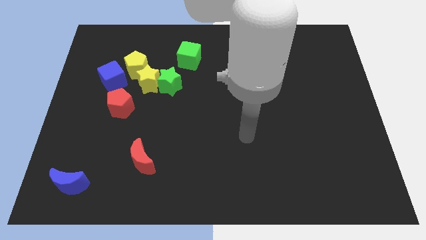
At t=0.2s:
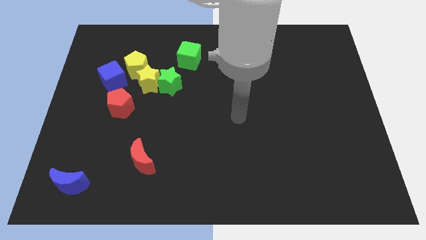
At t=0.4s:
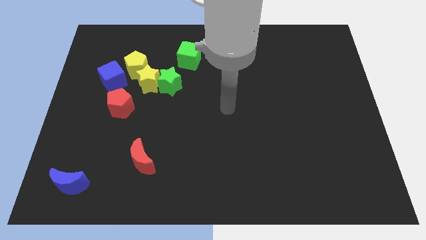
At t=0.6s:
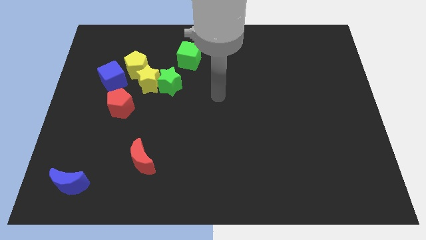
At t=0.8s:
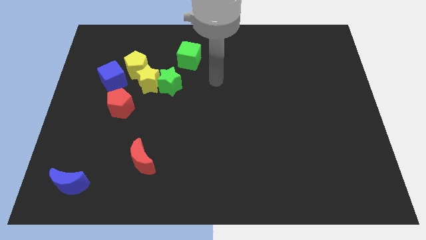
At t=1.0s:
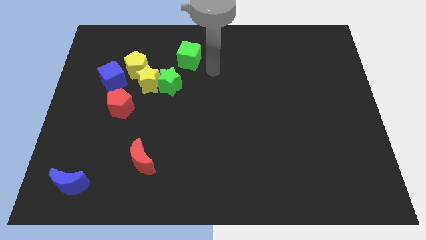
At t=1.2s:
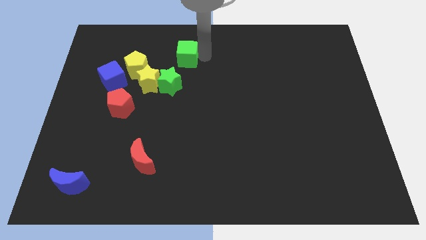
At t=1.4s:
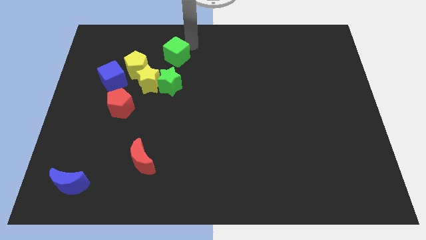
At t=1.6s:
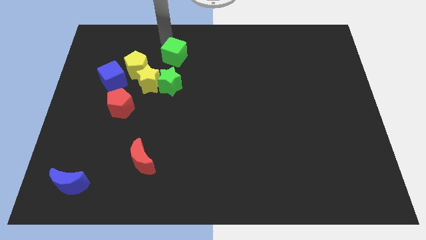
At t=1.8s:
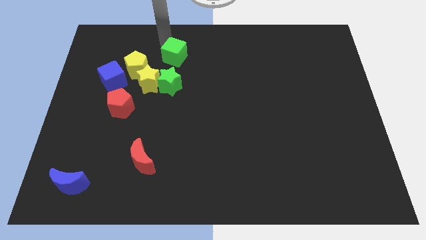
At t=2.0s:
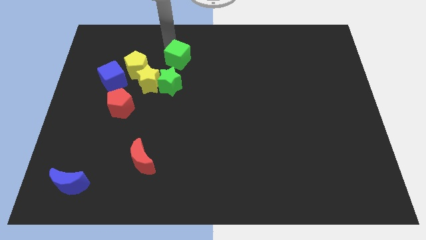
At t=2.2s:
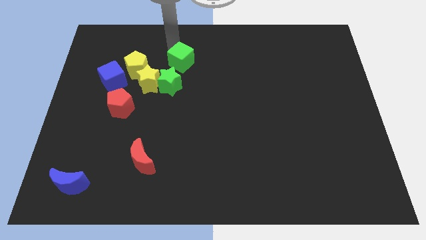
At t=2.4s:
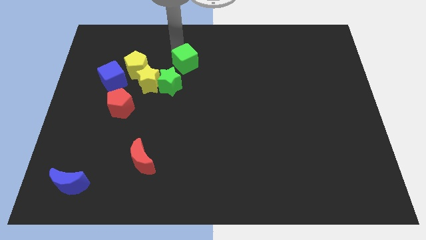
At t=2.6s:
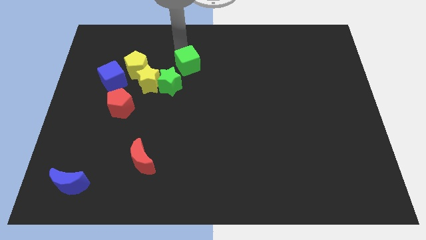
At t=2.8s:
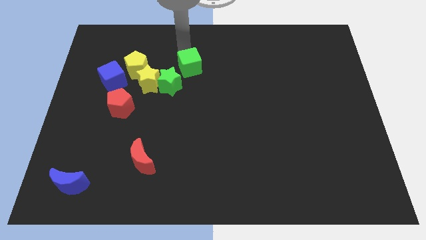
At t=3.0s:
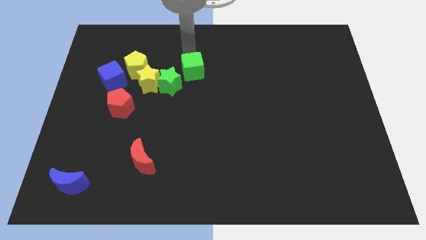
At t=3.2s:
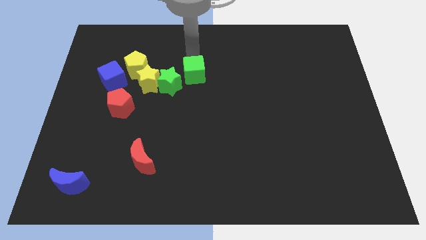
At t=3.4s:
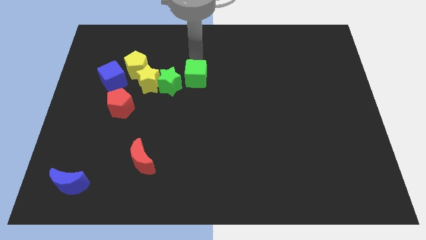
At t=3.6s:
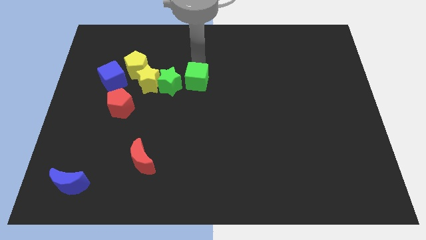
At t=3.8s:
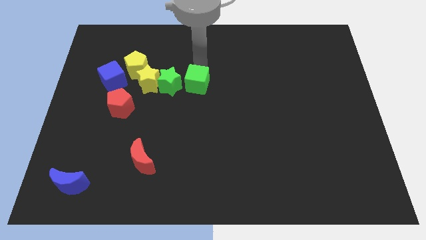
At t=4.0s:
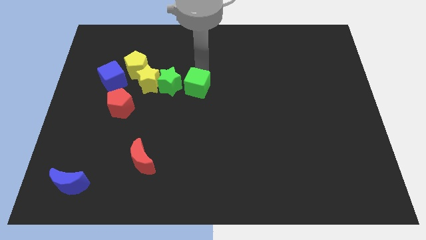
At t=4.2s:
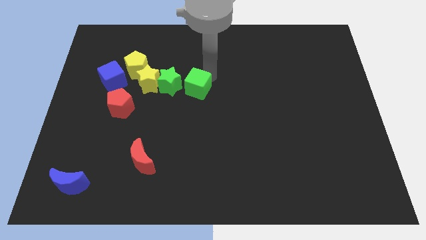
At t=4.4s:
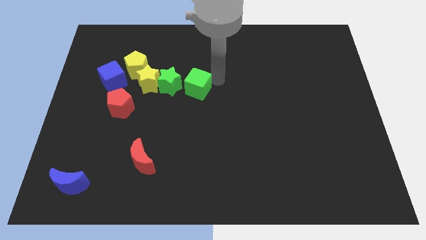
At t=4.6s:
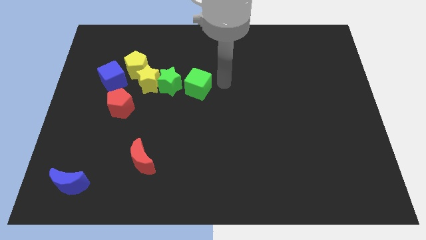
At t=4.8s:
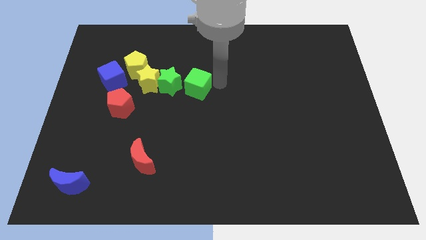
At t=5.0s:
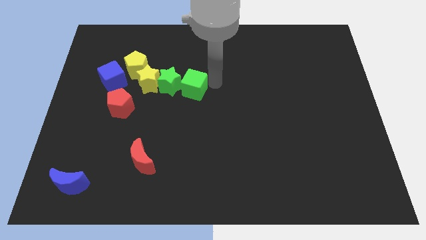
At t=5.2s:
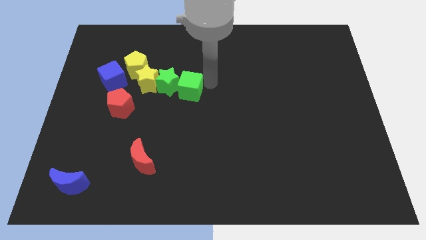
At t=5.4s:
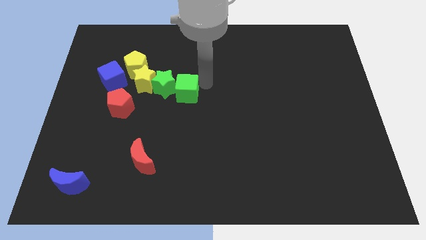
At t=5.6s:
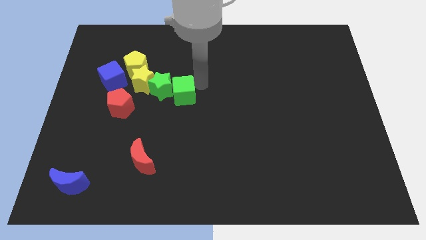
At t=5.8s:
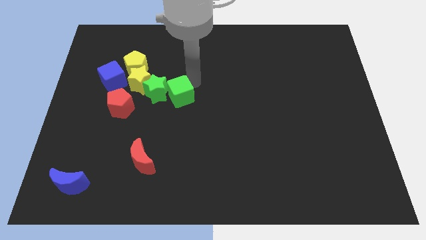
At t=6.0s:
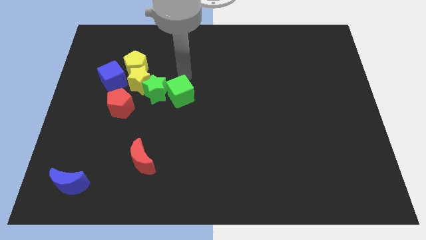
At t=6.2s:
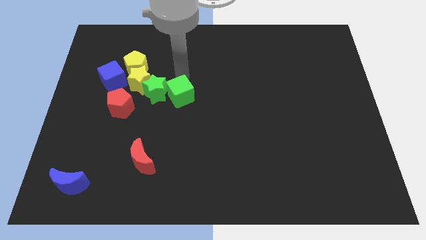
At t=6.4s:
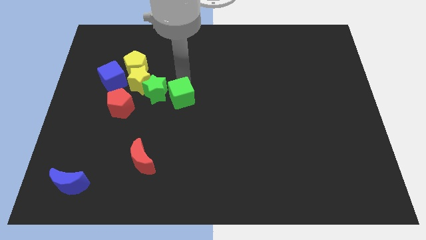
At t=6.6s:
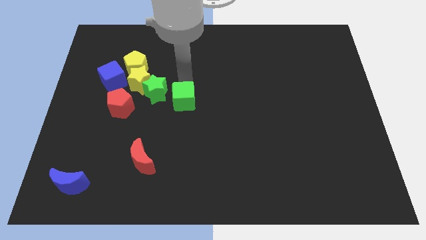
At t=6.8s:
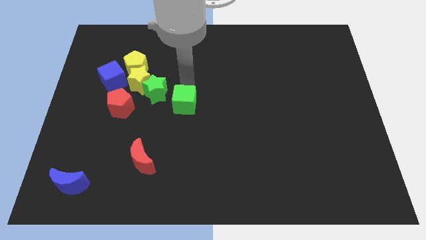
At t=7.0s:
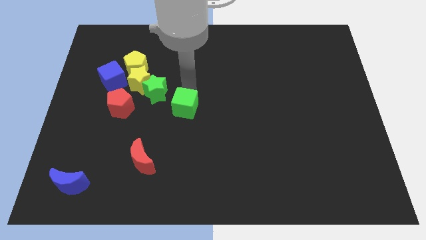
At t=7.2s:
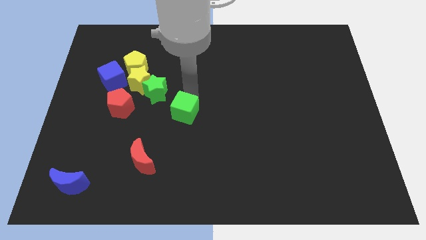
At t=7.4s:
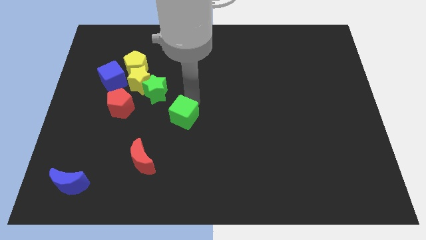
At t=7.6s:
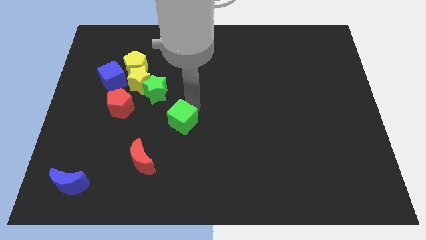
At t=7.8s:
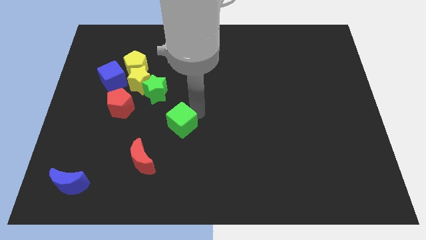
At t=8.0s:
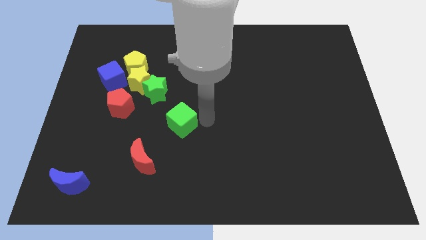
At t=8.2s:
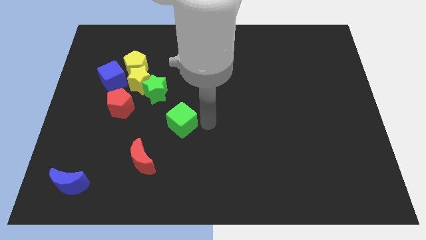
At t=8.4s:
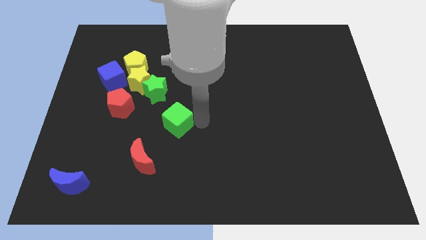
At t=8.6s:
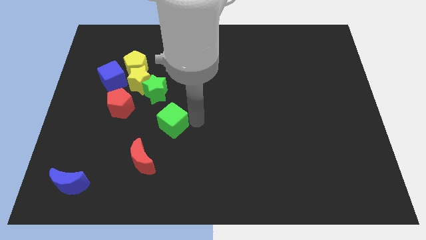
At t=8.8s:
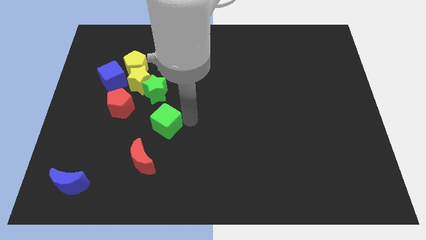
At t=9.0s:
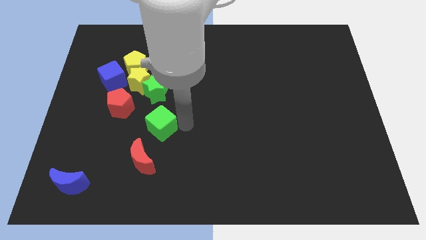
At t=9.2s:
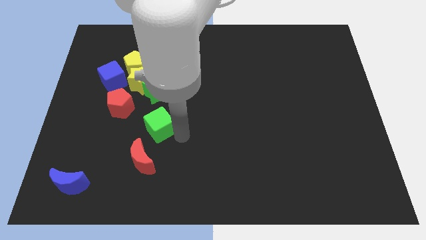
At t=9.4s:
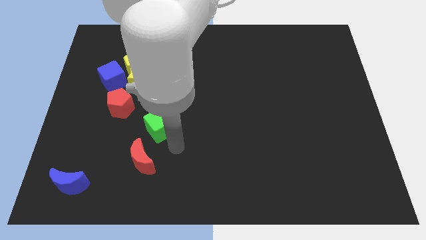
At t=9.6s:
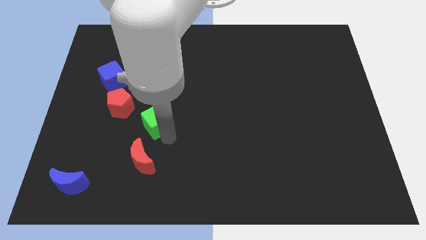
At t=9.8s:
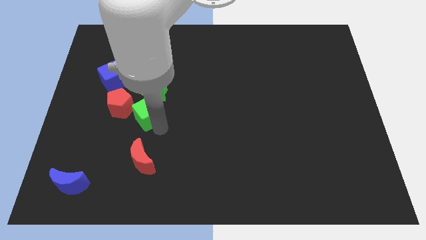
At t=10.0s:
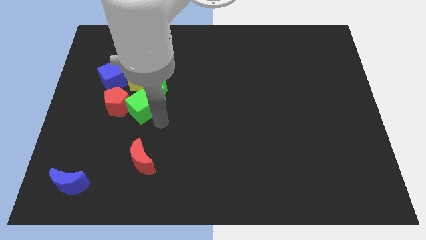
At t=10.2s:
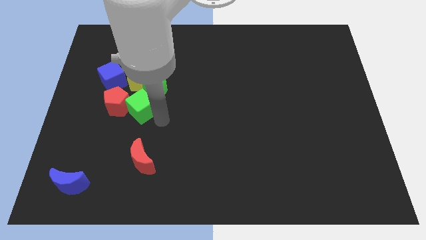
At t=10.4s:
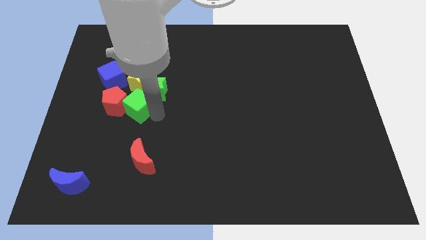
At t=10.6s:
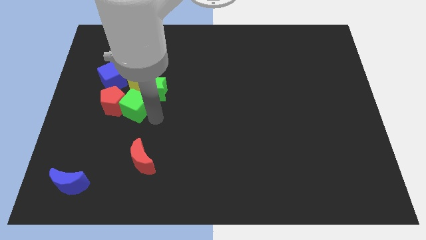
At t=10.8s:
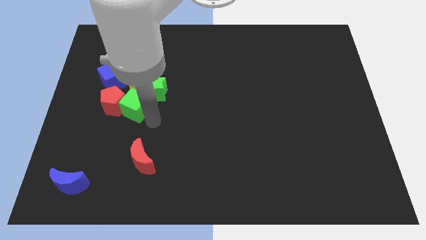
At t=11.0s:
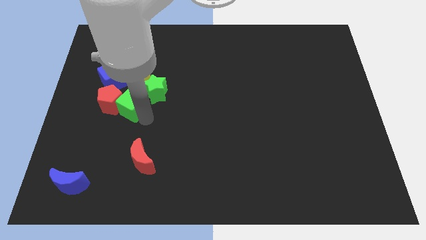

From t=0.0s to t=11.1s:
push the green cube just left of the green star

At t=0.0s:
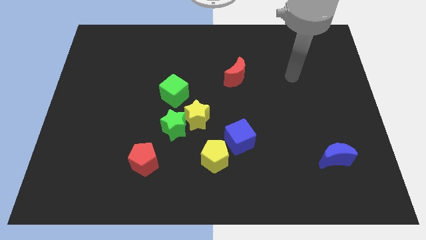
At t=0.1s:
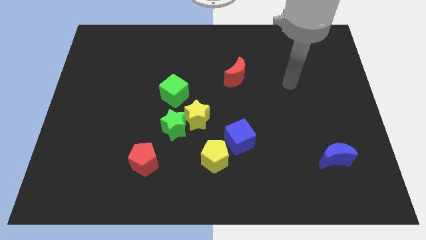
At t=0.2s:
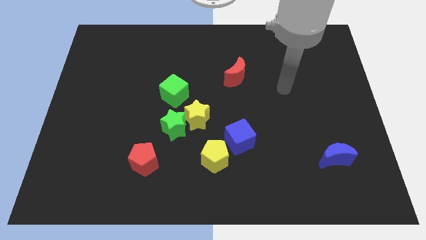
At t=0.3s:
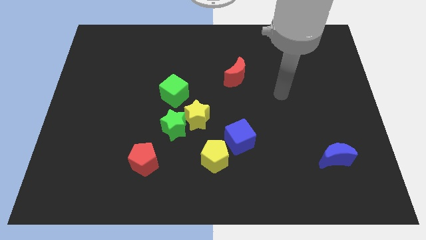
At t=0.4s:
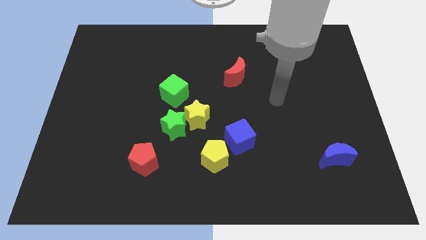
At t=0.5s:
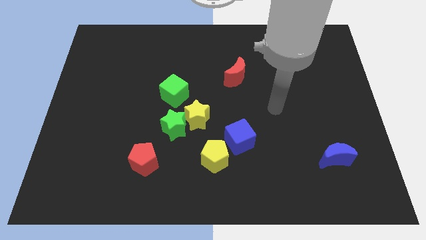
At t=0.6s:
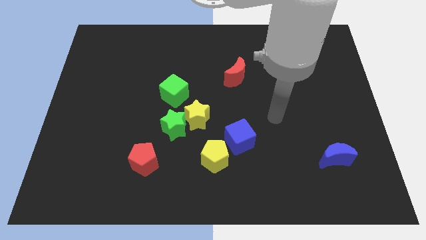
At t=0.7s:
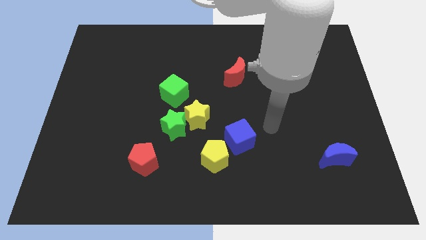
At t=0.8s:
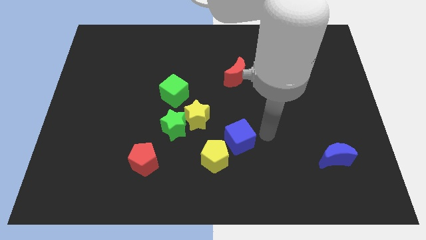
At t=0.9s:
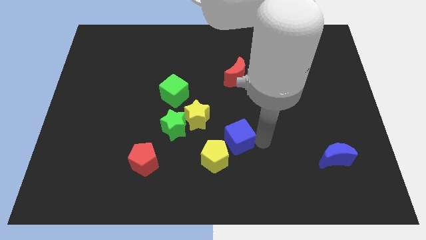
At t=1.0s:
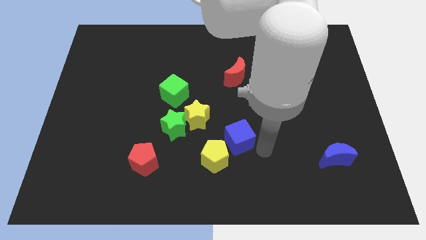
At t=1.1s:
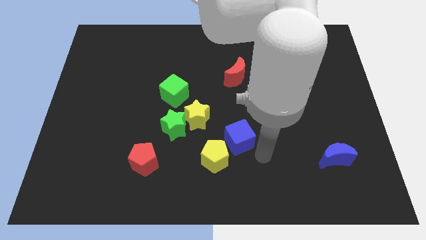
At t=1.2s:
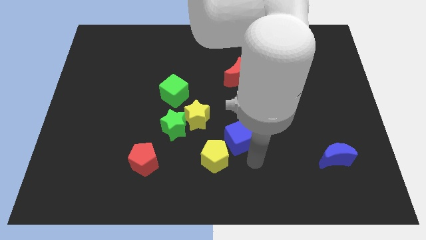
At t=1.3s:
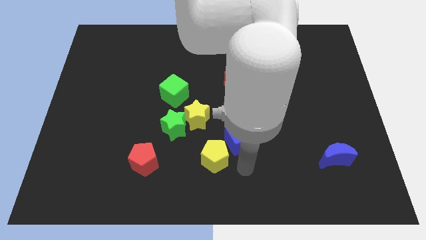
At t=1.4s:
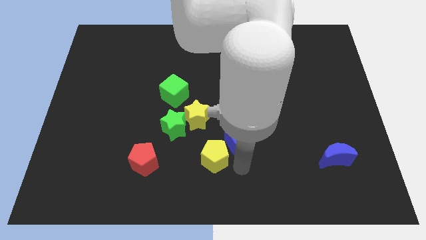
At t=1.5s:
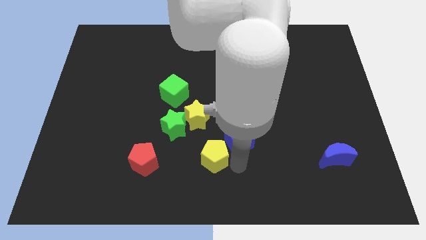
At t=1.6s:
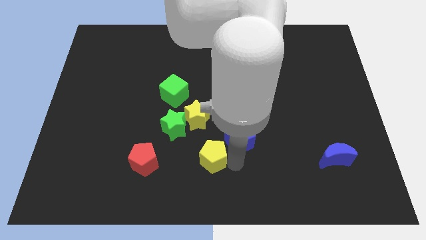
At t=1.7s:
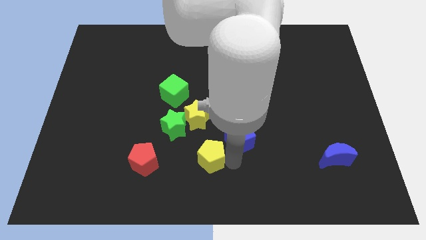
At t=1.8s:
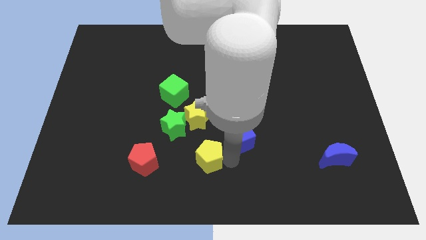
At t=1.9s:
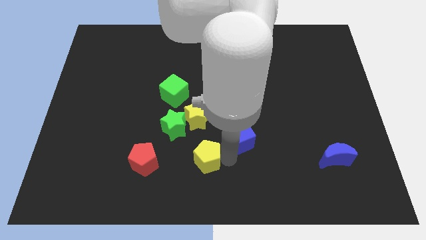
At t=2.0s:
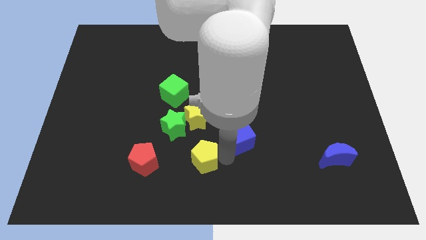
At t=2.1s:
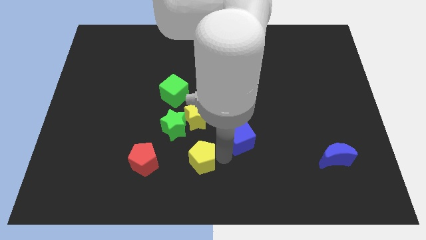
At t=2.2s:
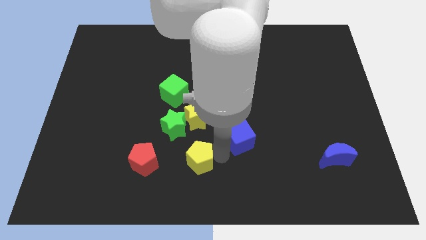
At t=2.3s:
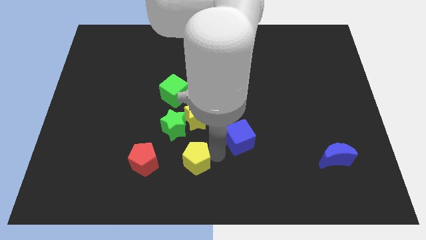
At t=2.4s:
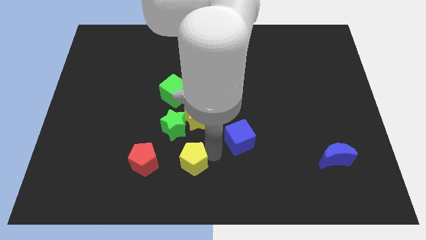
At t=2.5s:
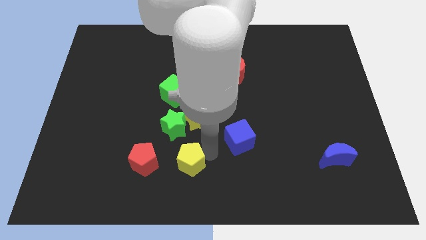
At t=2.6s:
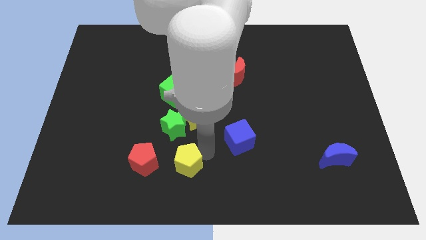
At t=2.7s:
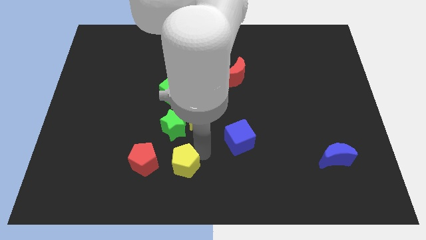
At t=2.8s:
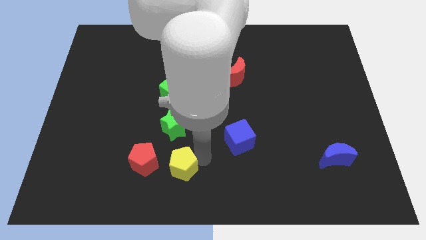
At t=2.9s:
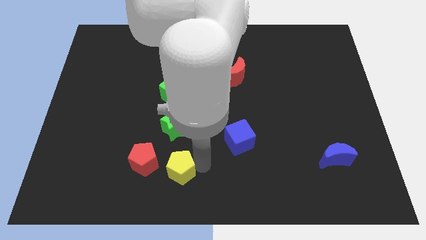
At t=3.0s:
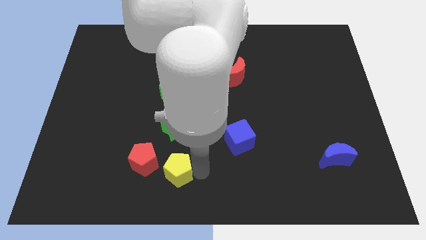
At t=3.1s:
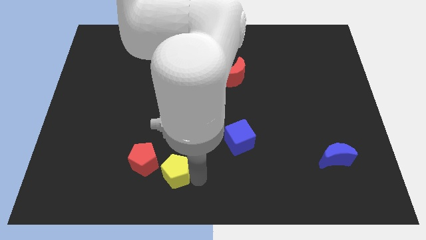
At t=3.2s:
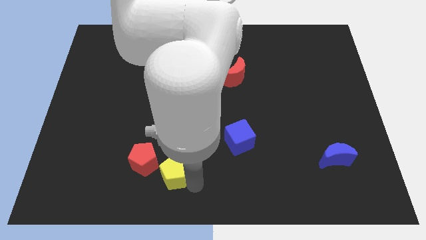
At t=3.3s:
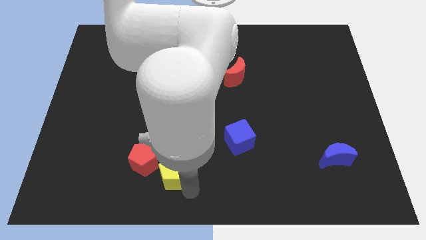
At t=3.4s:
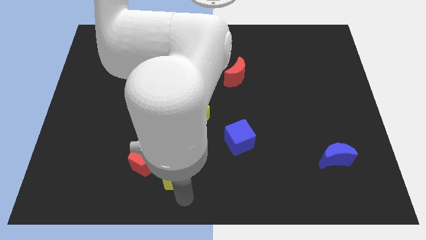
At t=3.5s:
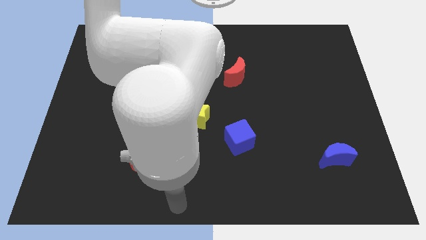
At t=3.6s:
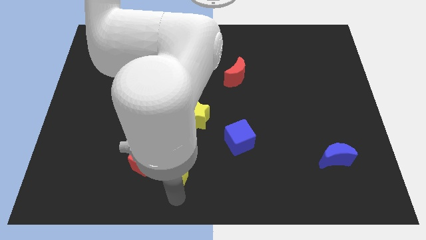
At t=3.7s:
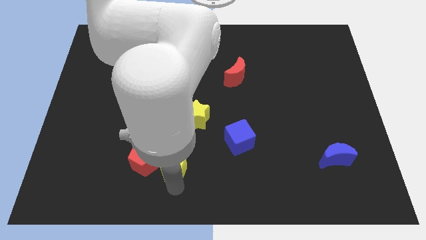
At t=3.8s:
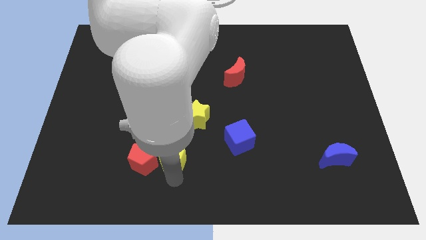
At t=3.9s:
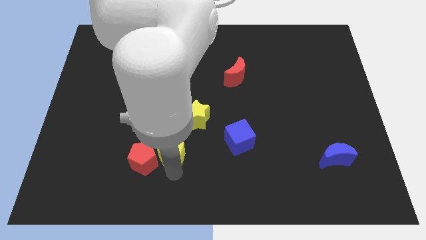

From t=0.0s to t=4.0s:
push the yellow pentagon diagonally down and to the left of the yellow star
